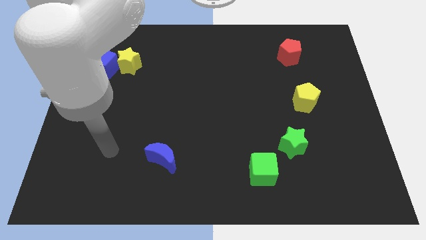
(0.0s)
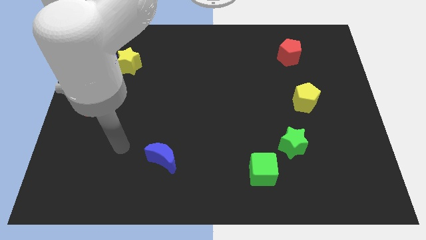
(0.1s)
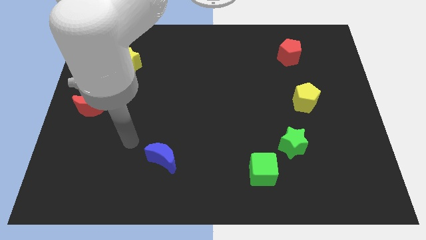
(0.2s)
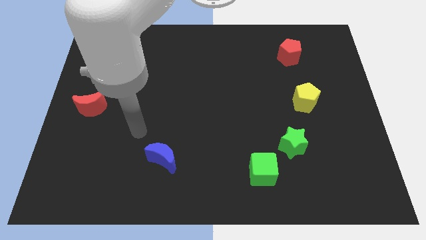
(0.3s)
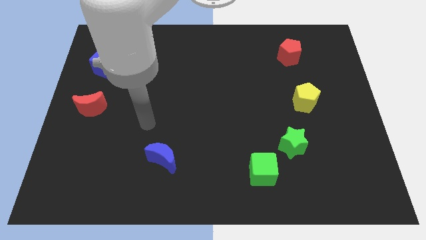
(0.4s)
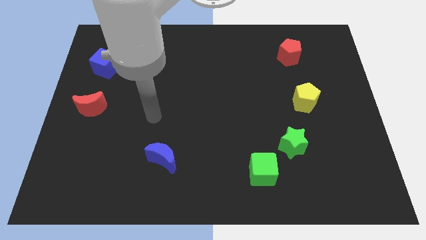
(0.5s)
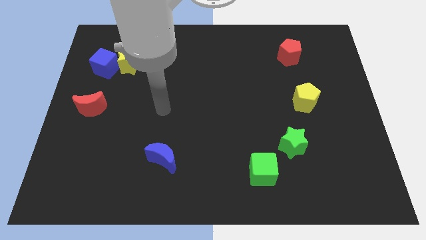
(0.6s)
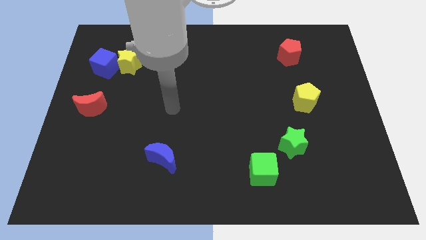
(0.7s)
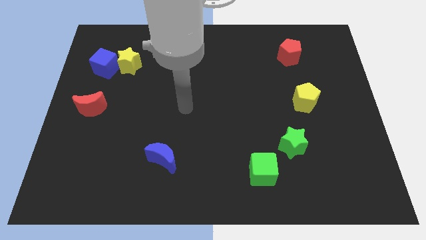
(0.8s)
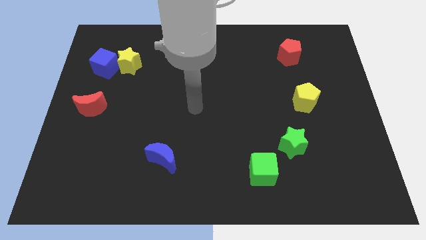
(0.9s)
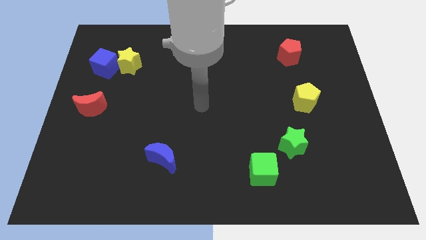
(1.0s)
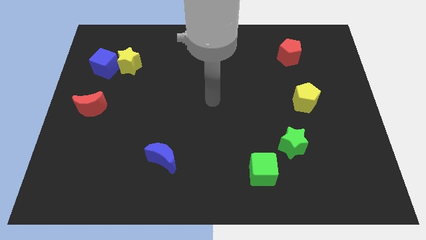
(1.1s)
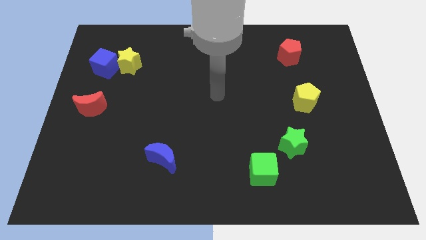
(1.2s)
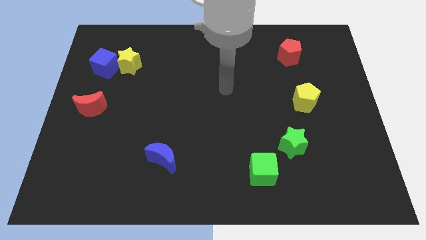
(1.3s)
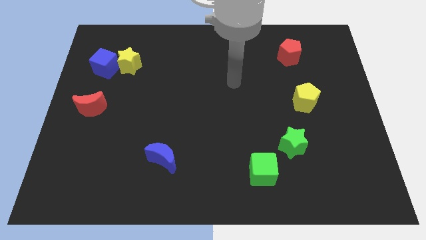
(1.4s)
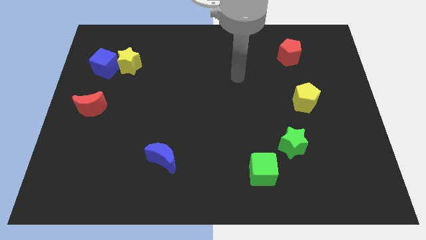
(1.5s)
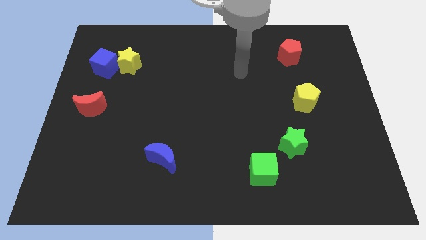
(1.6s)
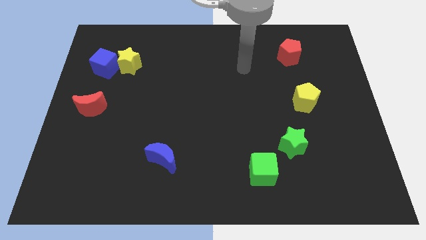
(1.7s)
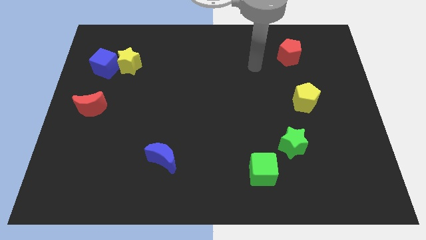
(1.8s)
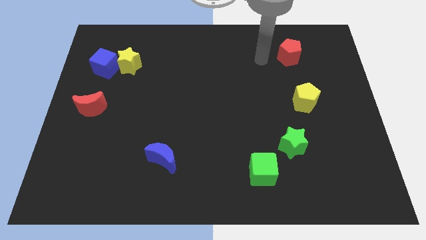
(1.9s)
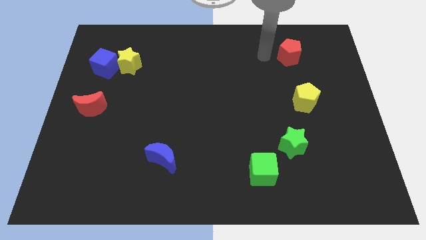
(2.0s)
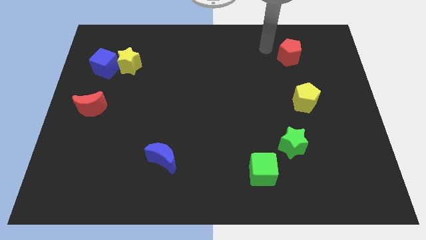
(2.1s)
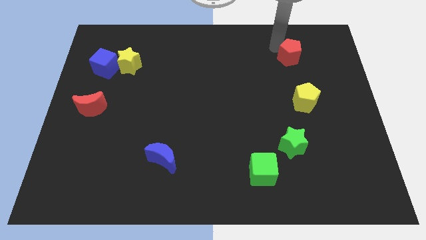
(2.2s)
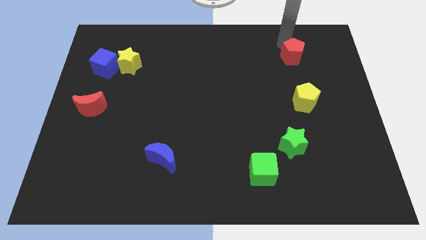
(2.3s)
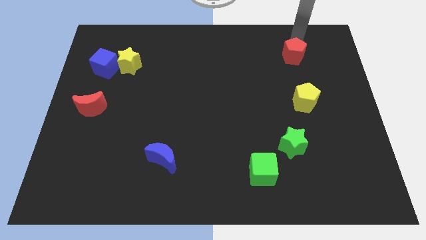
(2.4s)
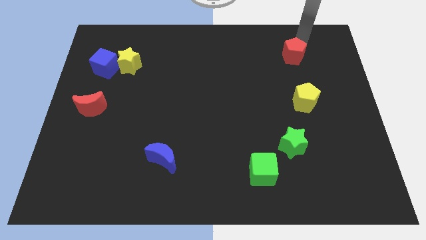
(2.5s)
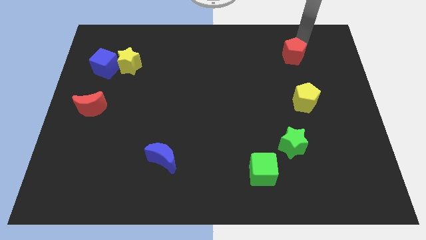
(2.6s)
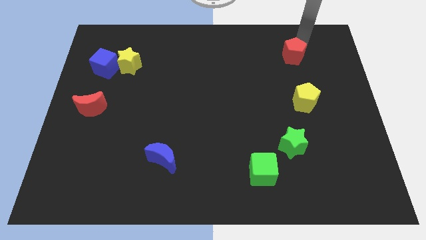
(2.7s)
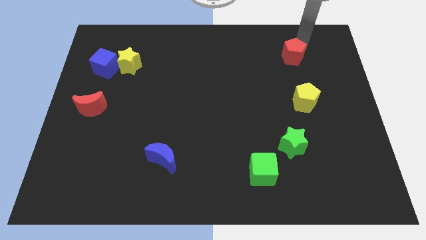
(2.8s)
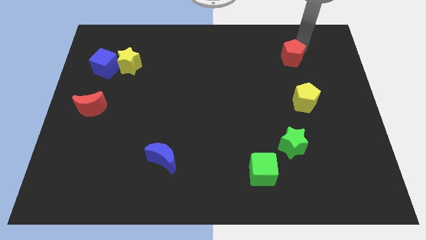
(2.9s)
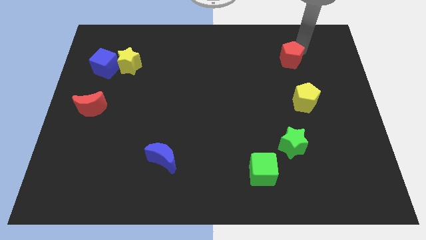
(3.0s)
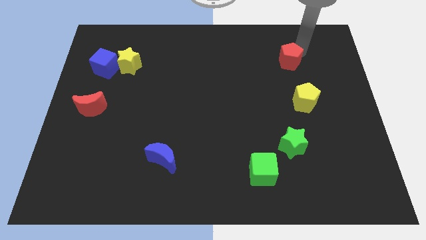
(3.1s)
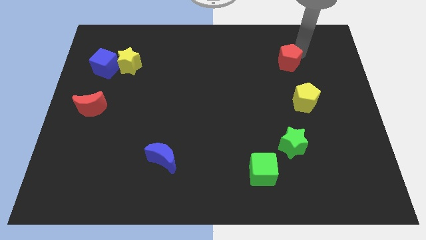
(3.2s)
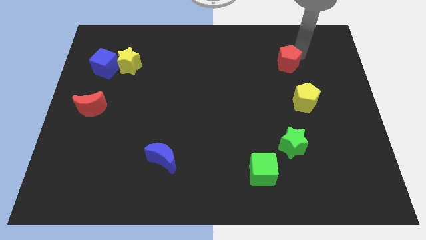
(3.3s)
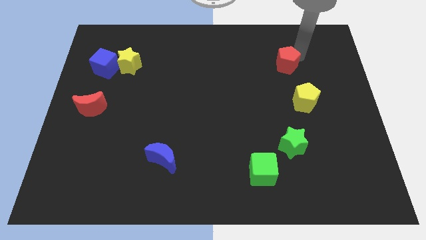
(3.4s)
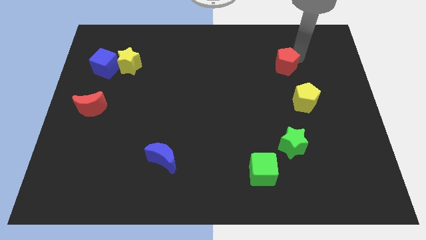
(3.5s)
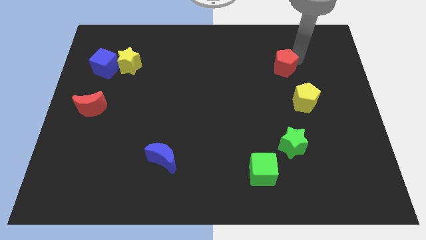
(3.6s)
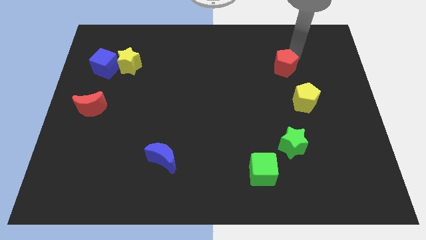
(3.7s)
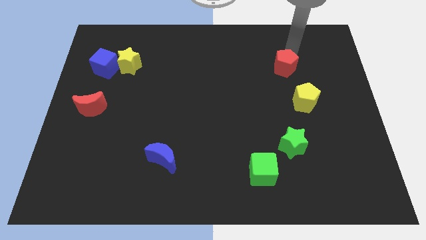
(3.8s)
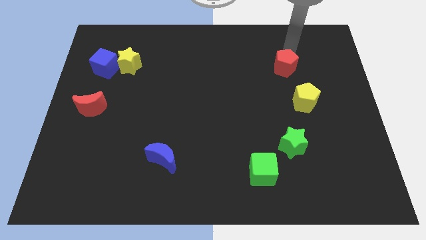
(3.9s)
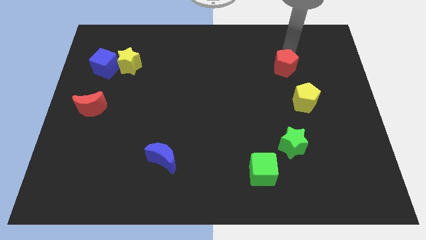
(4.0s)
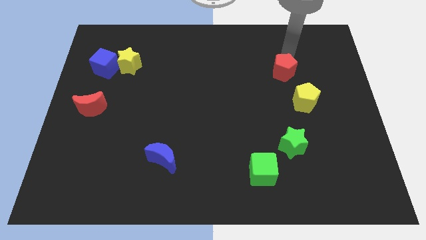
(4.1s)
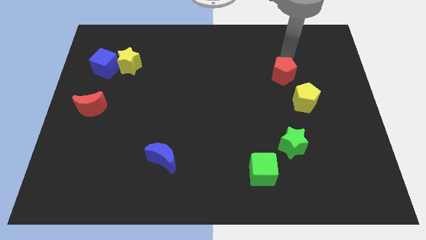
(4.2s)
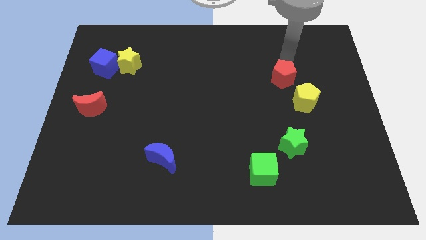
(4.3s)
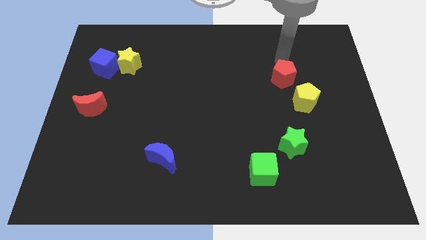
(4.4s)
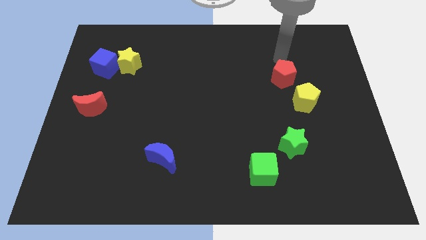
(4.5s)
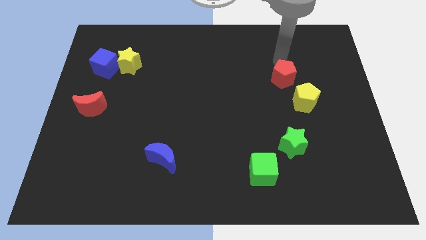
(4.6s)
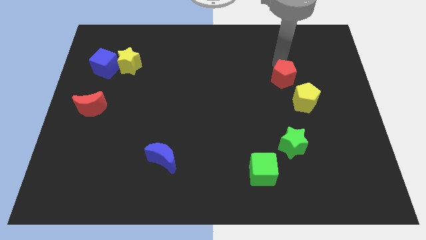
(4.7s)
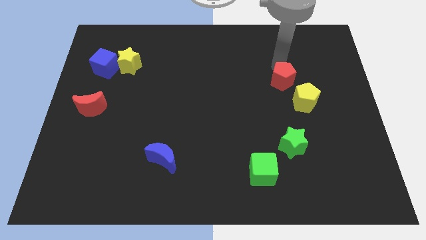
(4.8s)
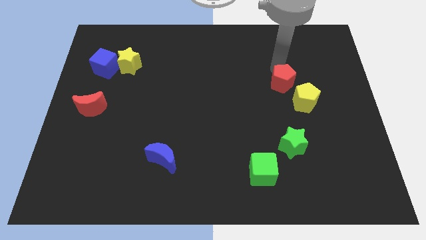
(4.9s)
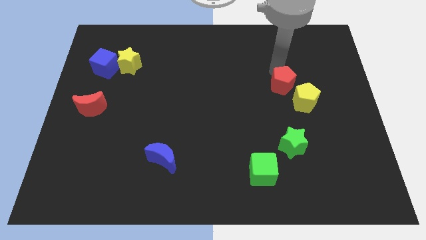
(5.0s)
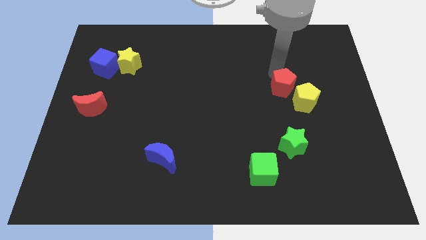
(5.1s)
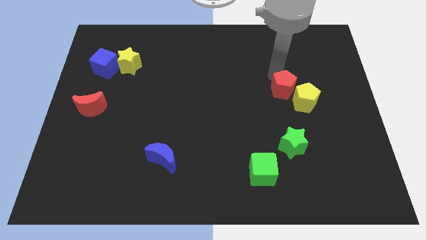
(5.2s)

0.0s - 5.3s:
move the red pentagon to the top of the green star

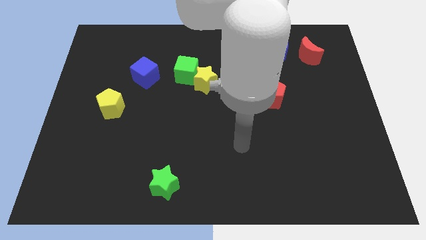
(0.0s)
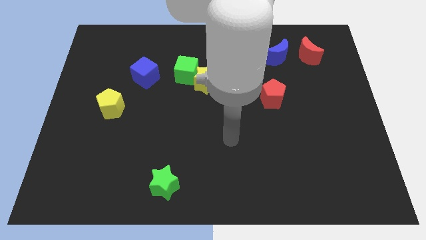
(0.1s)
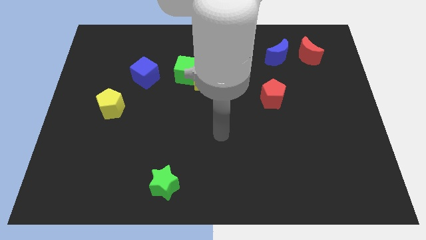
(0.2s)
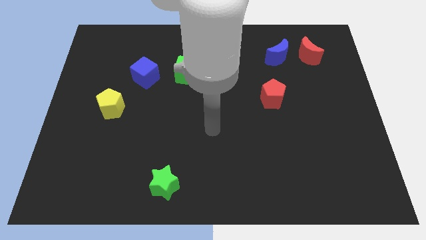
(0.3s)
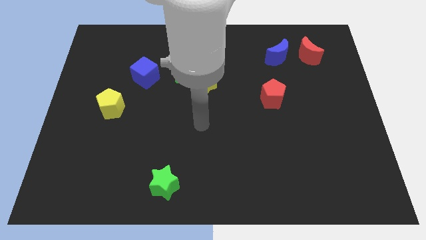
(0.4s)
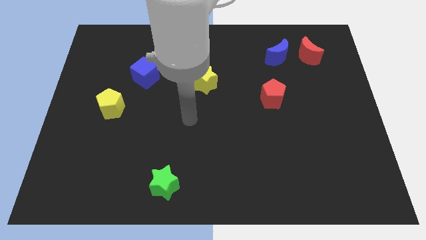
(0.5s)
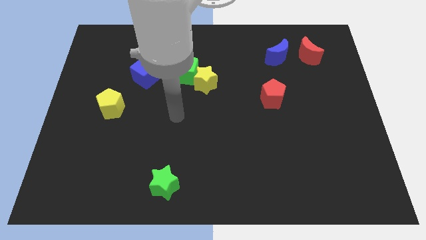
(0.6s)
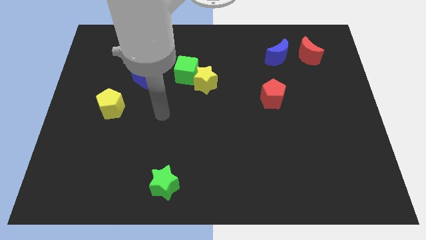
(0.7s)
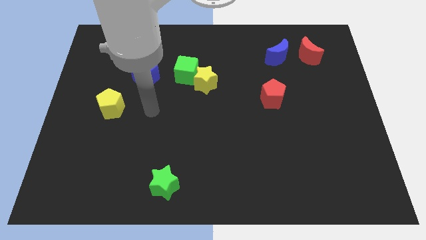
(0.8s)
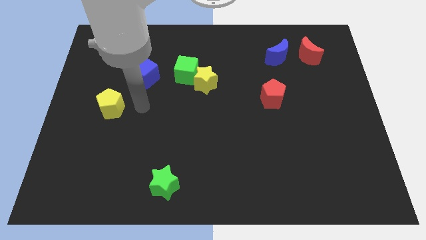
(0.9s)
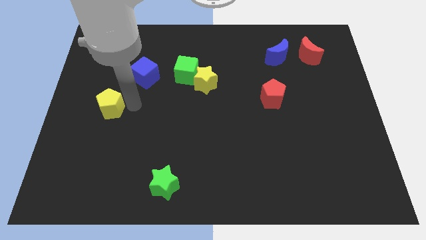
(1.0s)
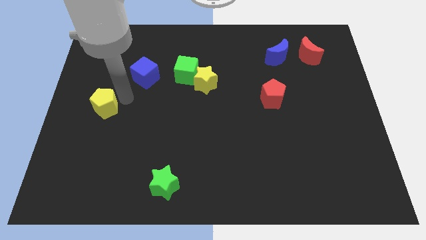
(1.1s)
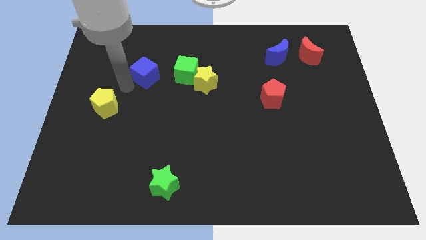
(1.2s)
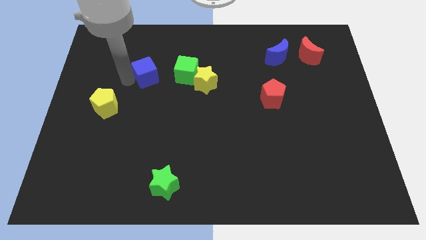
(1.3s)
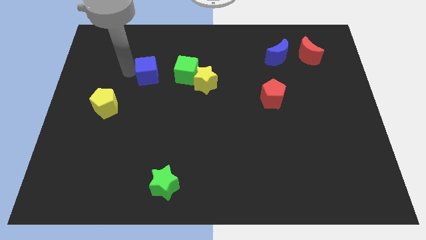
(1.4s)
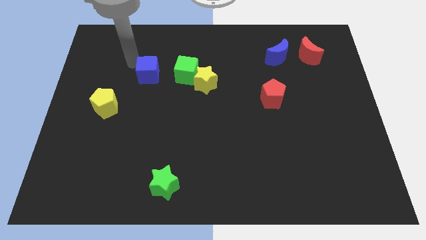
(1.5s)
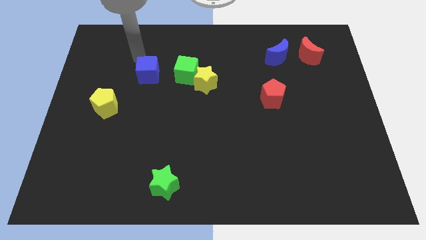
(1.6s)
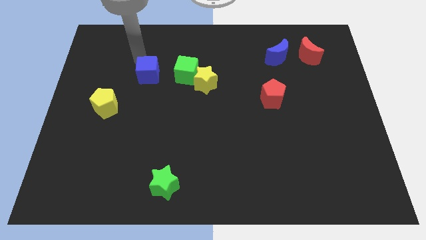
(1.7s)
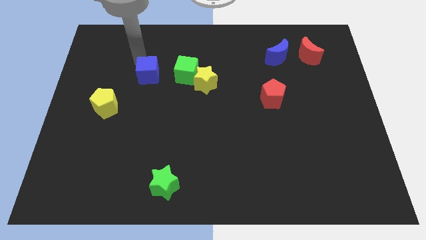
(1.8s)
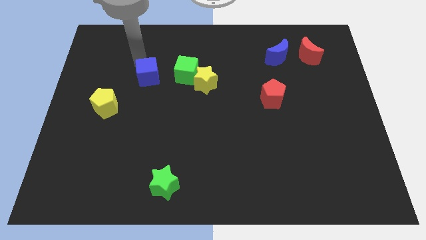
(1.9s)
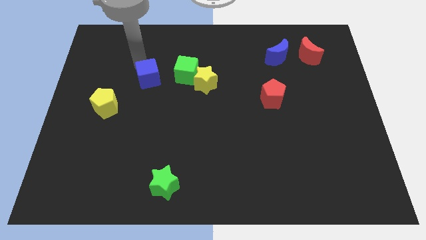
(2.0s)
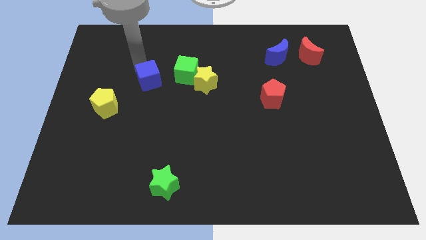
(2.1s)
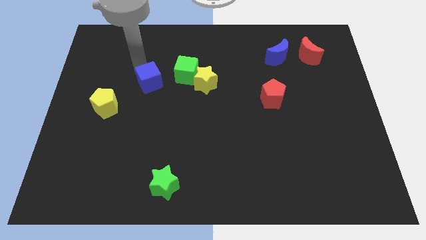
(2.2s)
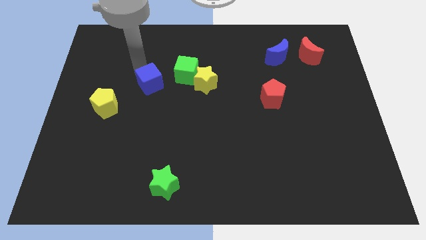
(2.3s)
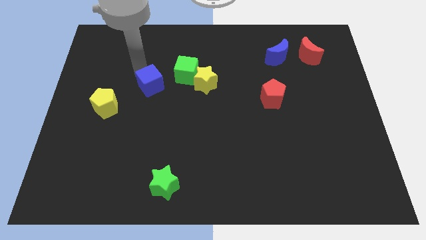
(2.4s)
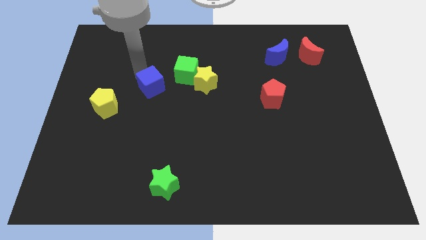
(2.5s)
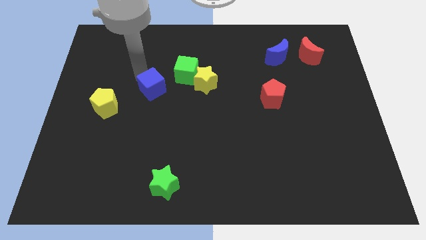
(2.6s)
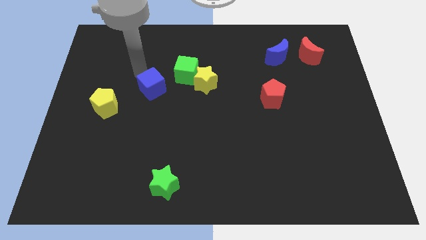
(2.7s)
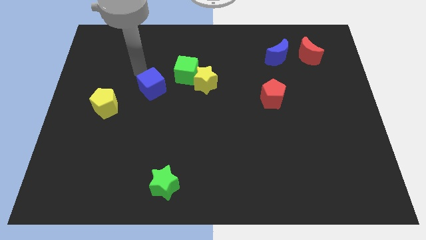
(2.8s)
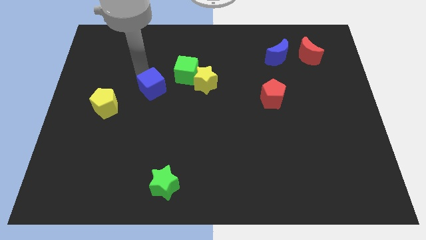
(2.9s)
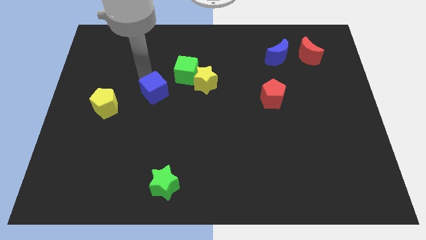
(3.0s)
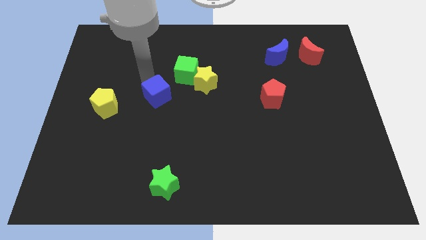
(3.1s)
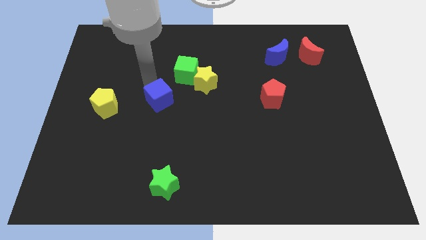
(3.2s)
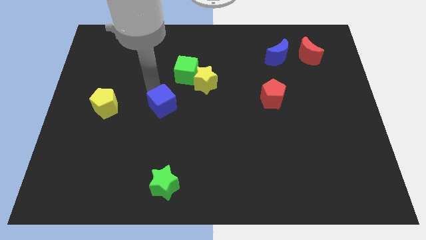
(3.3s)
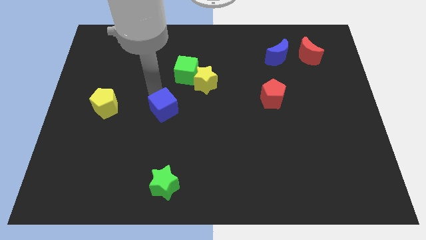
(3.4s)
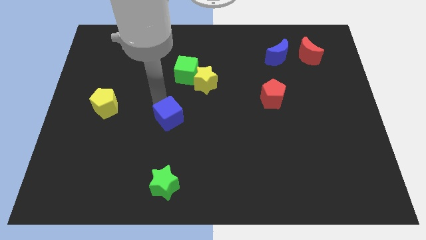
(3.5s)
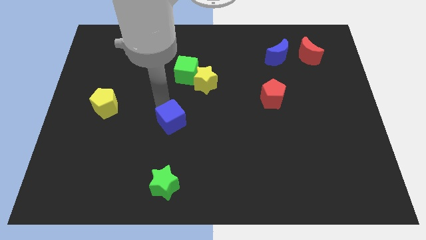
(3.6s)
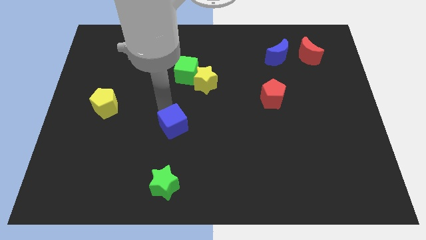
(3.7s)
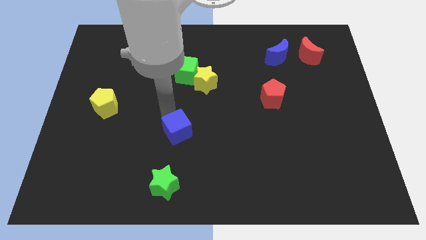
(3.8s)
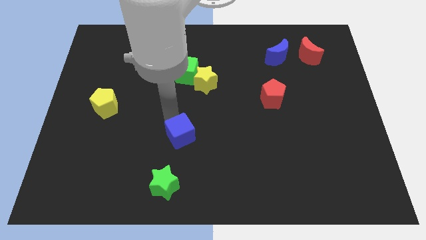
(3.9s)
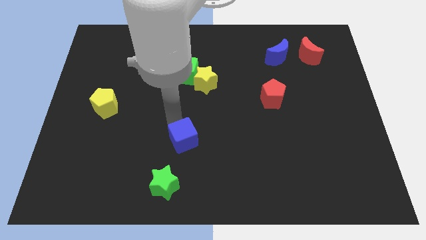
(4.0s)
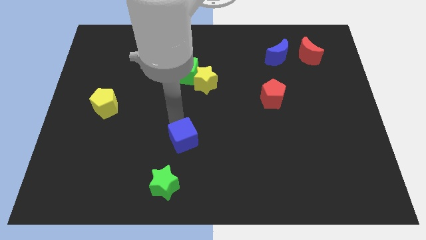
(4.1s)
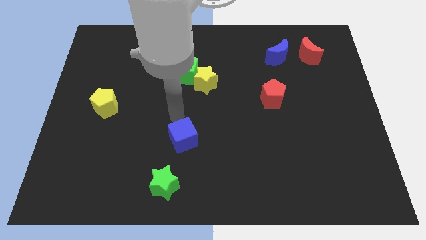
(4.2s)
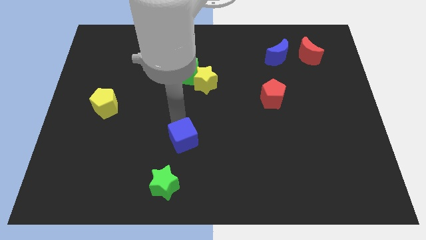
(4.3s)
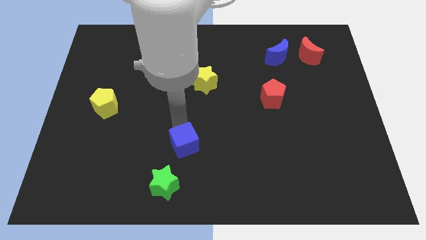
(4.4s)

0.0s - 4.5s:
move the blue cube diagonally up and to the right of the green star
